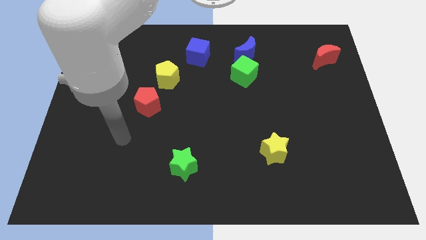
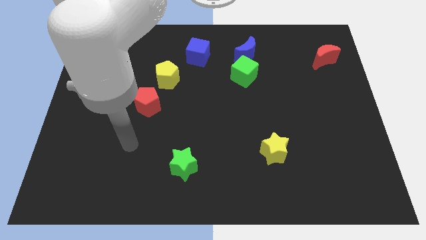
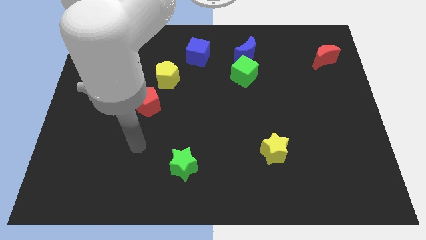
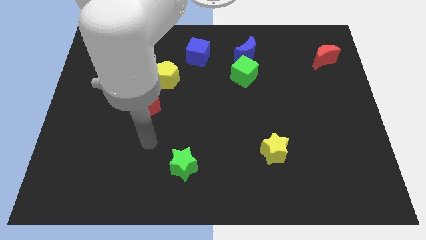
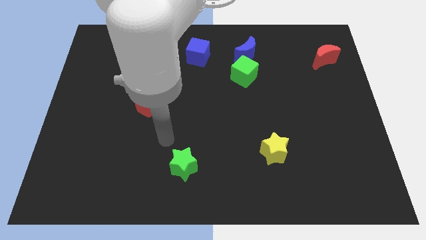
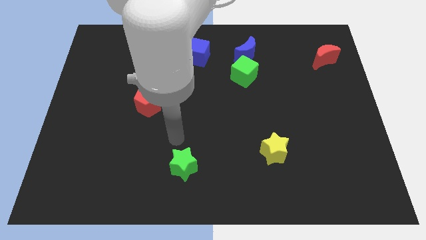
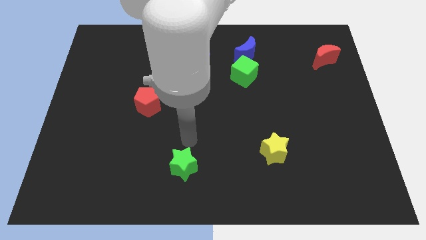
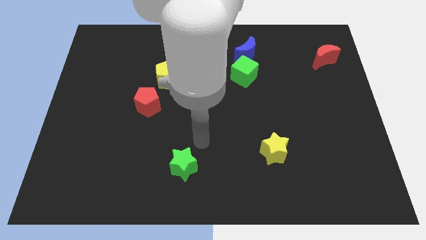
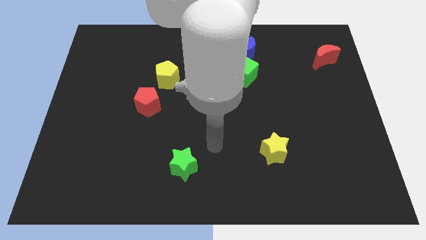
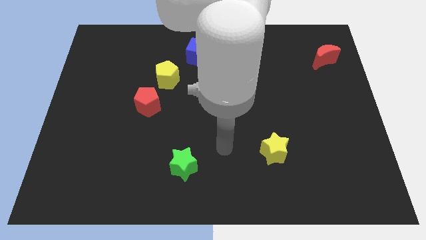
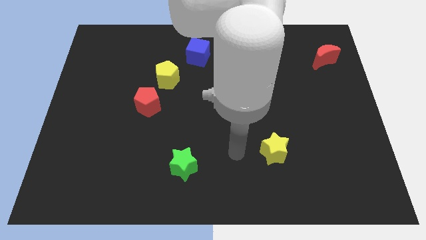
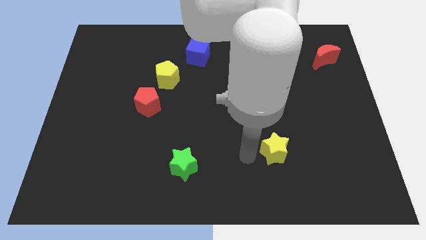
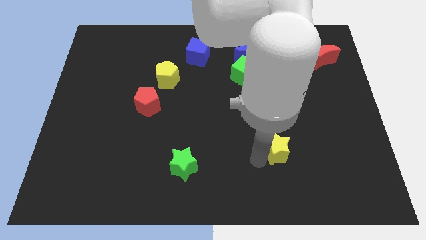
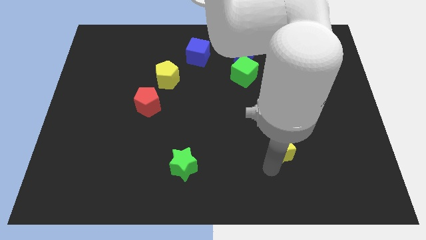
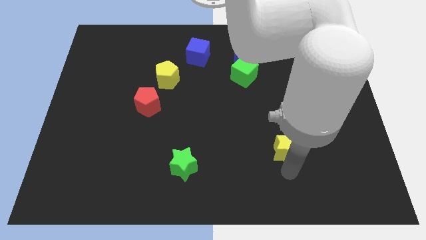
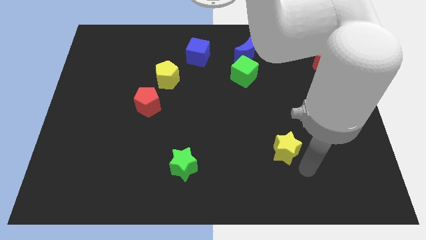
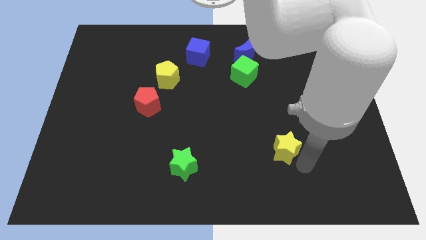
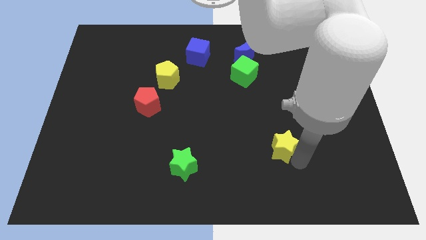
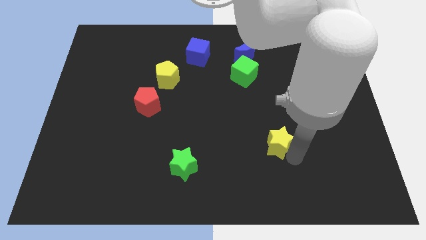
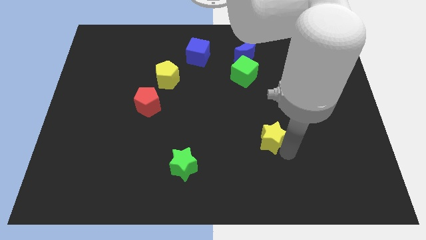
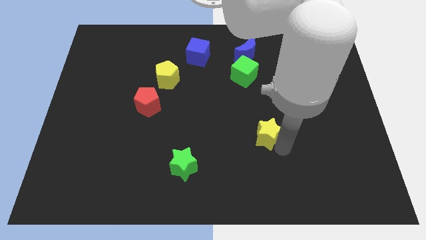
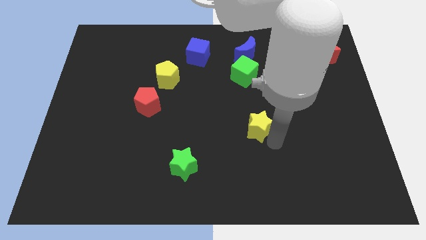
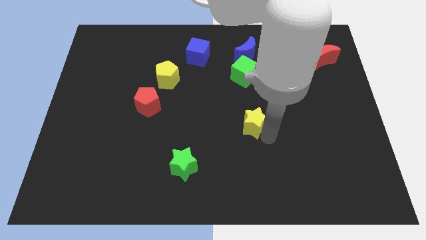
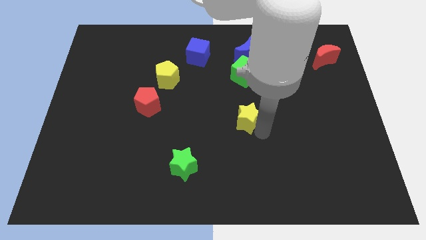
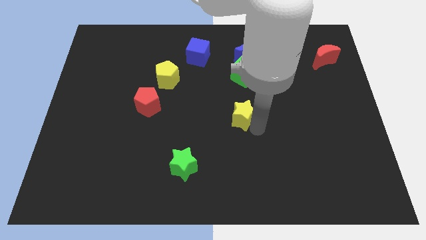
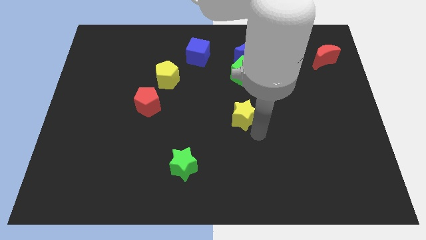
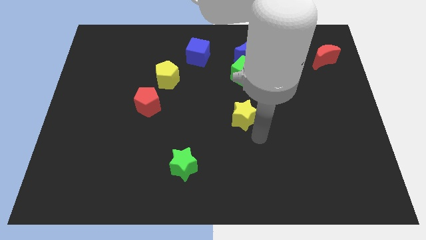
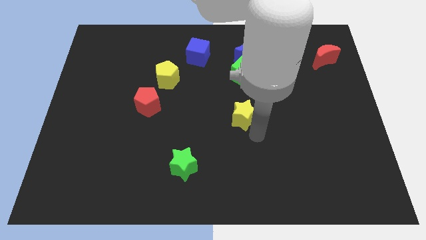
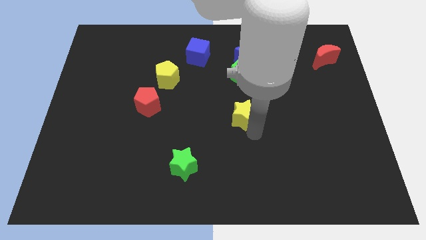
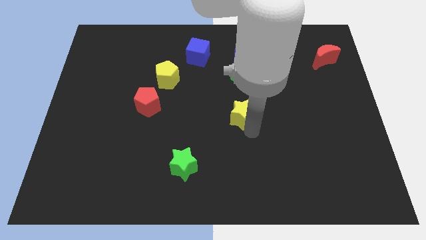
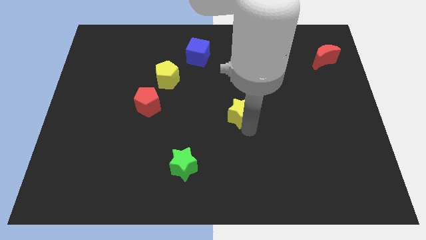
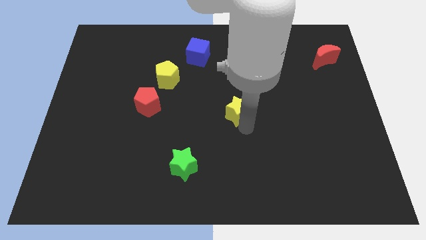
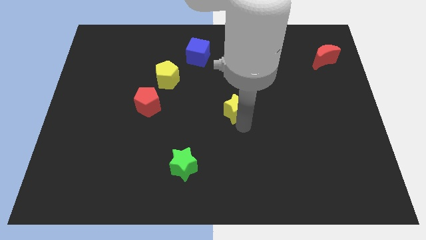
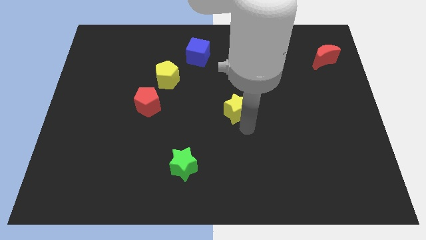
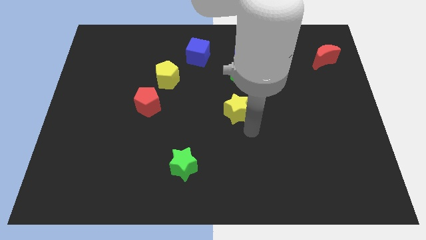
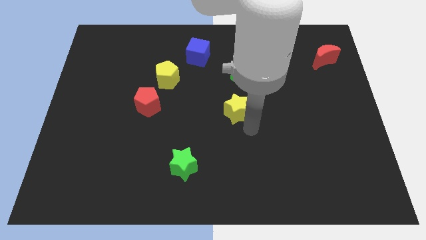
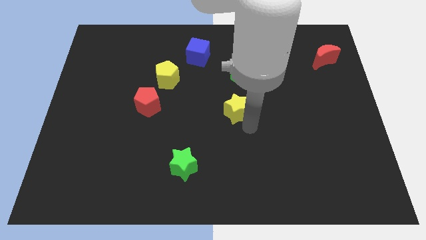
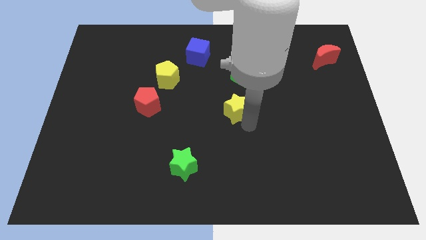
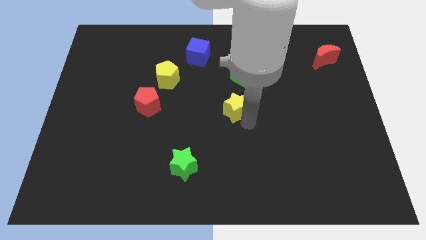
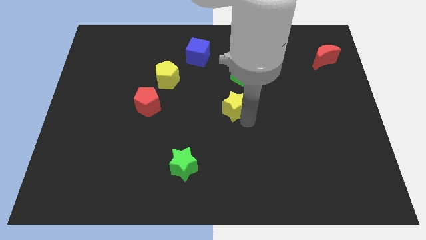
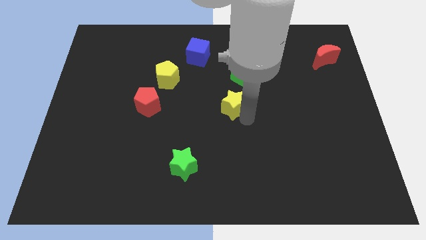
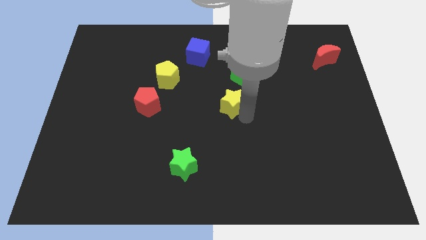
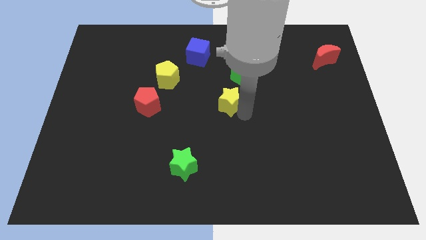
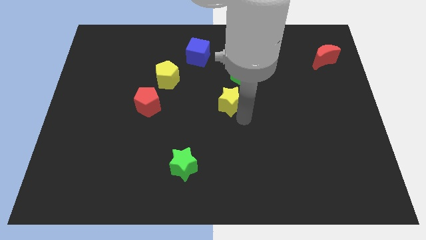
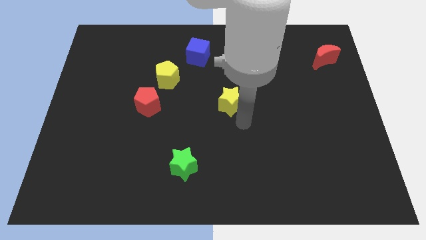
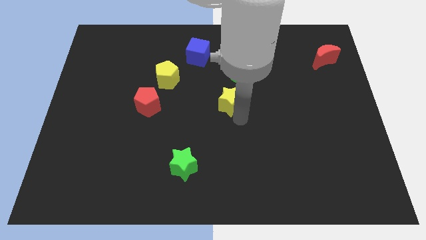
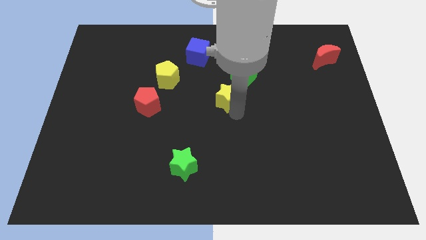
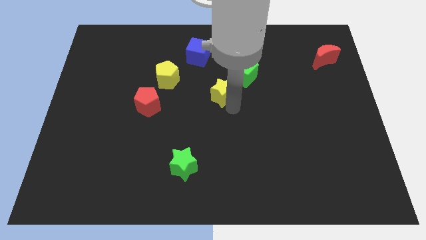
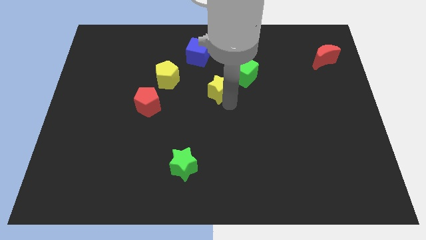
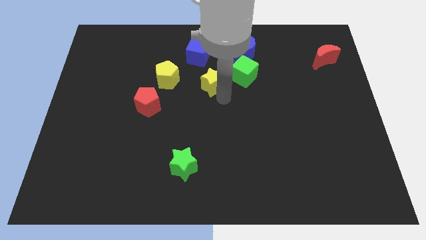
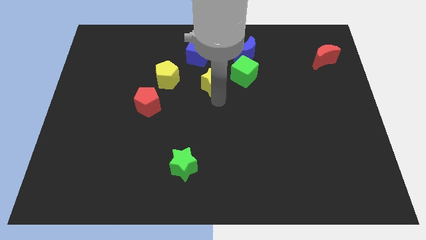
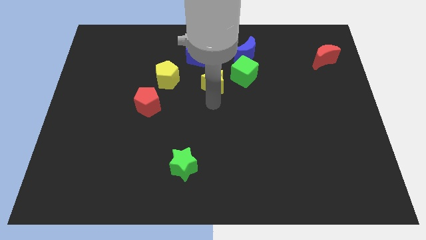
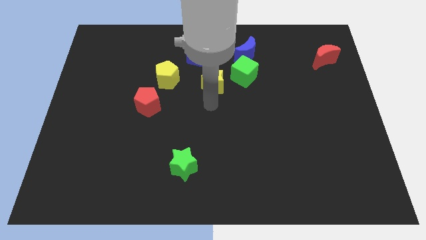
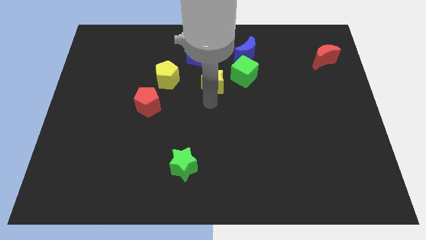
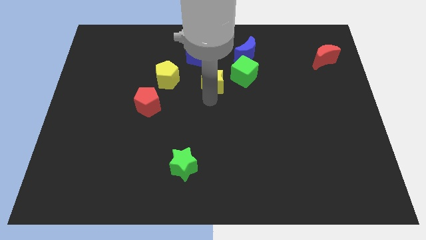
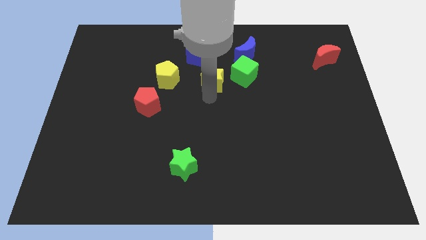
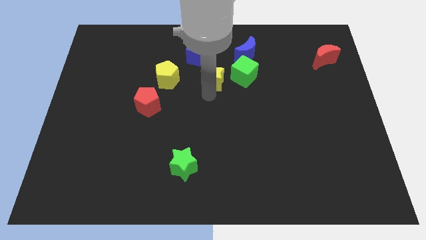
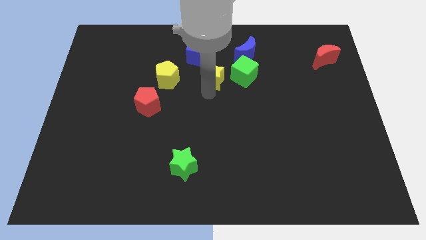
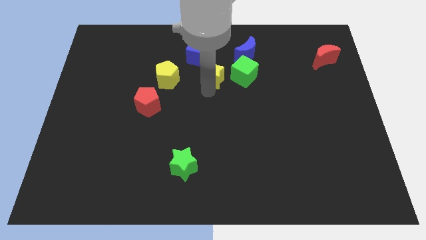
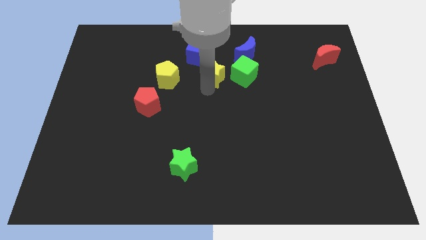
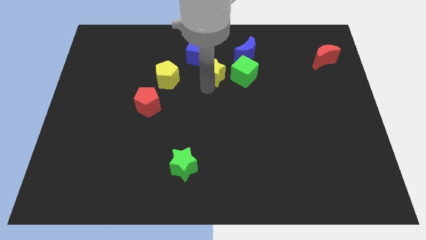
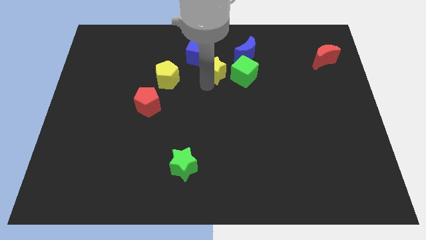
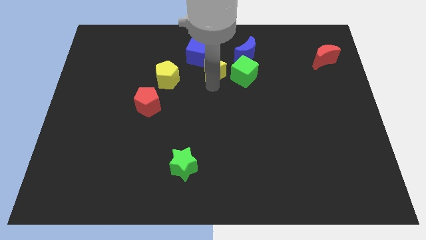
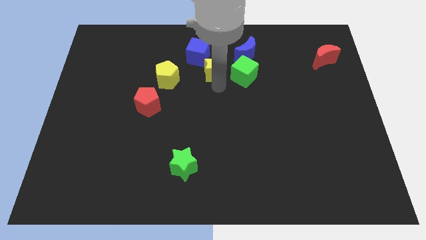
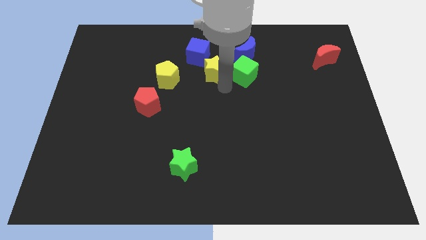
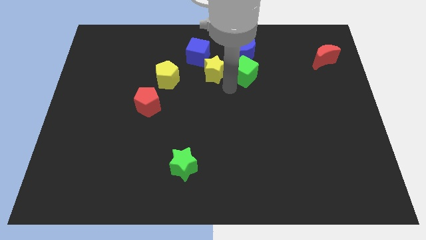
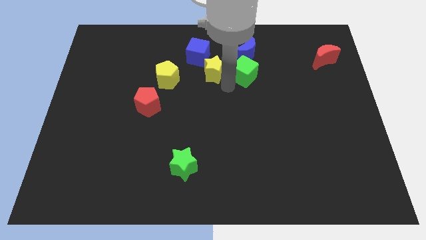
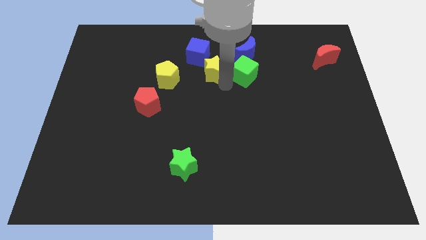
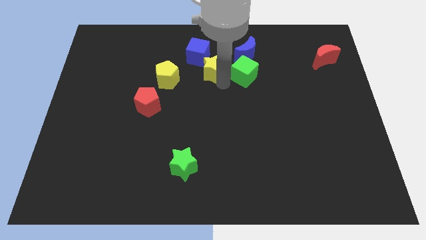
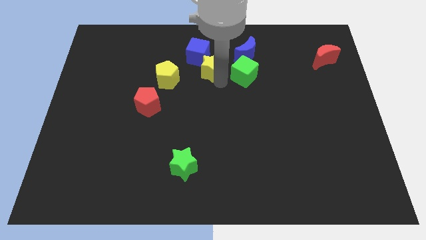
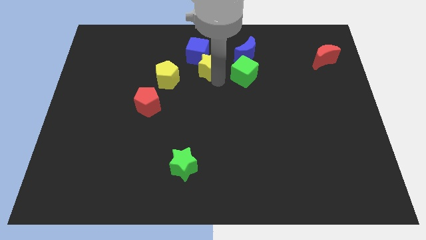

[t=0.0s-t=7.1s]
move the yellow star towards the blue cube
